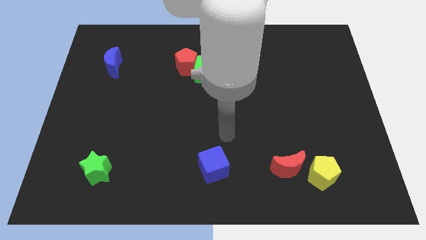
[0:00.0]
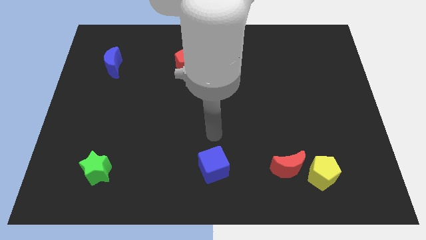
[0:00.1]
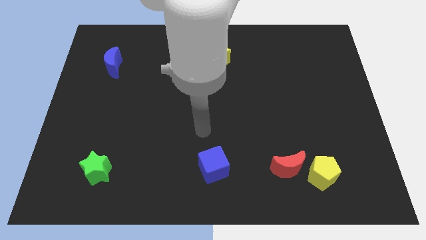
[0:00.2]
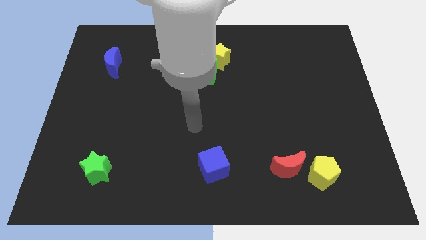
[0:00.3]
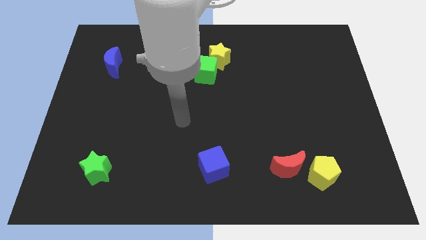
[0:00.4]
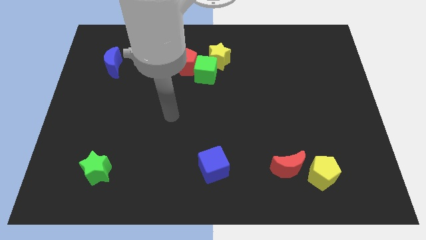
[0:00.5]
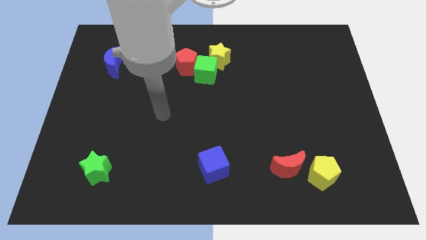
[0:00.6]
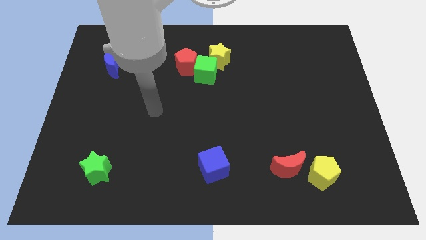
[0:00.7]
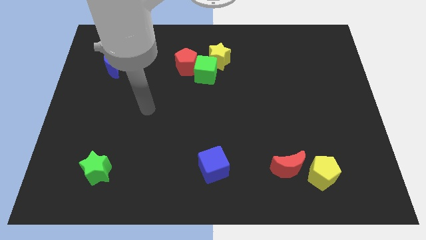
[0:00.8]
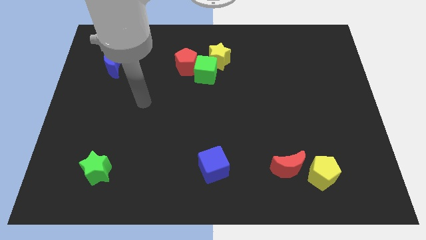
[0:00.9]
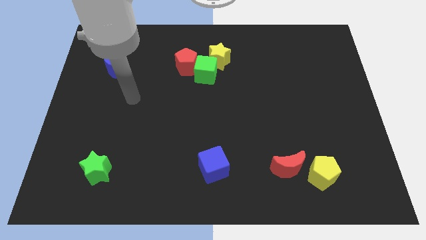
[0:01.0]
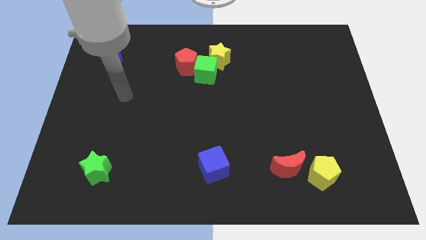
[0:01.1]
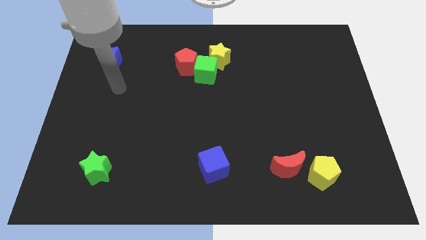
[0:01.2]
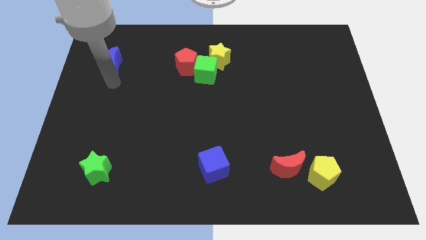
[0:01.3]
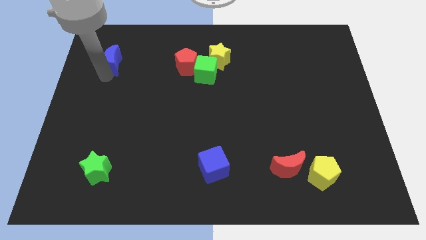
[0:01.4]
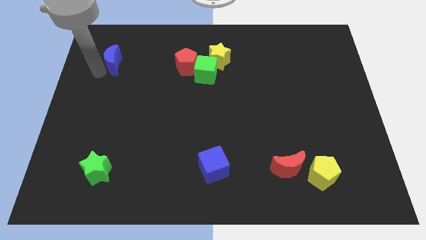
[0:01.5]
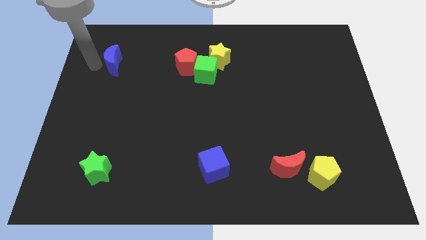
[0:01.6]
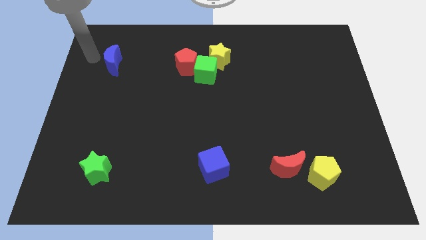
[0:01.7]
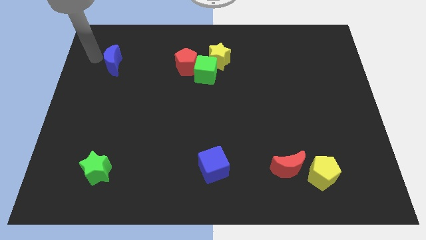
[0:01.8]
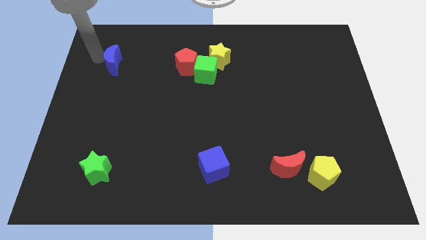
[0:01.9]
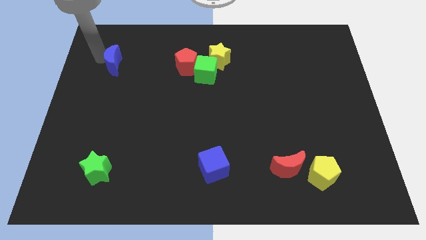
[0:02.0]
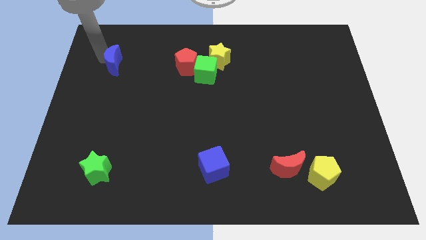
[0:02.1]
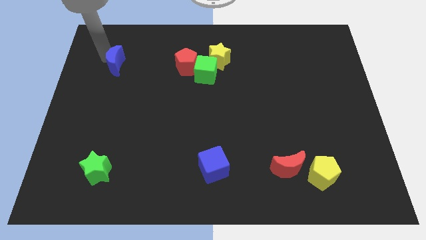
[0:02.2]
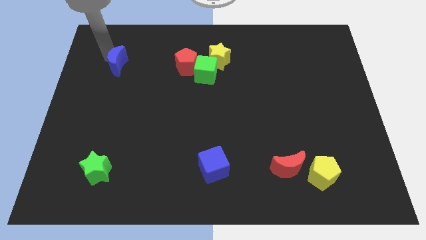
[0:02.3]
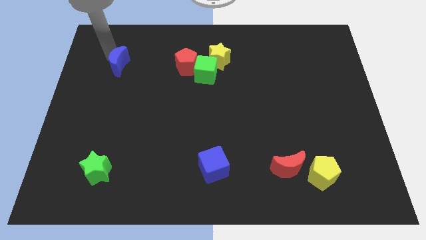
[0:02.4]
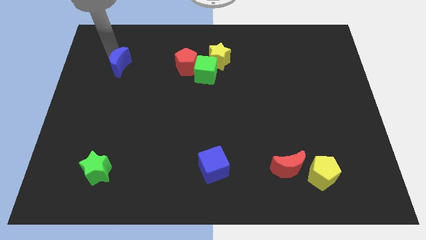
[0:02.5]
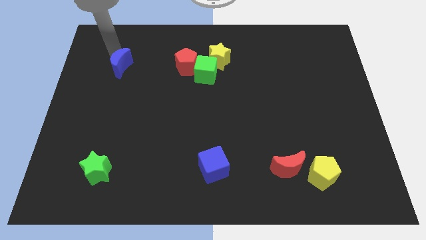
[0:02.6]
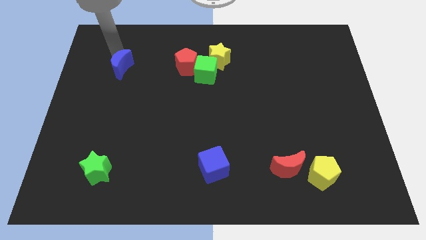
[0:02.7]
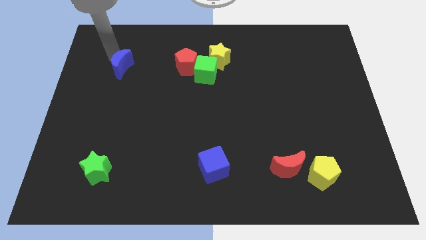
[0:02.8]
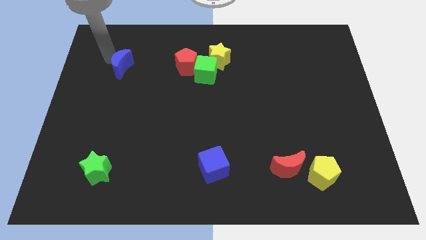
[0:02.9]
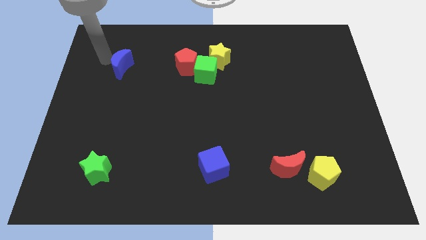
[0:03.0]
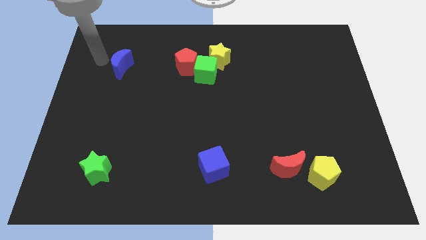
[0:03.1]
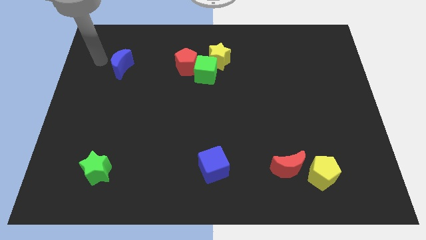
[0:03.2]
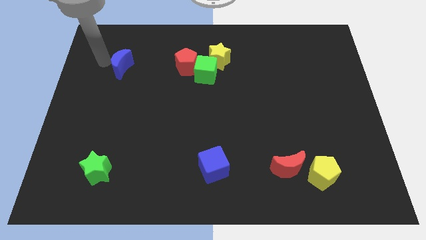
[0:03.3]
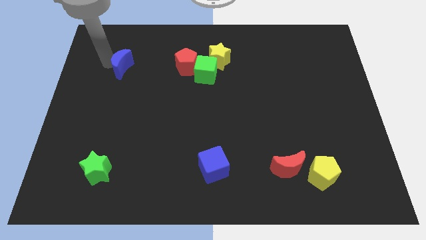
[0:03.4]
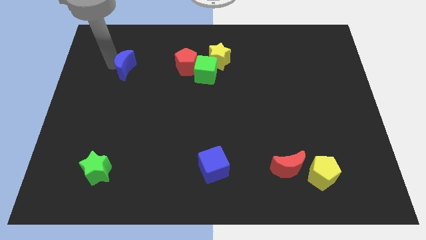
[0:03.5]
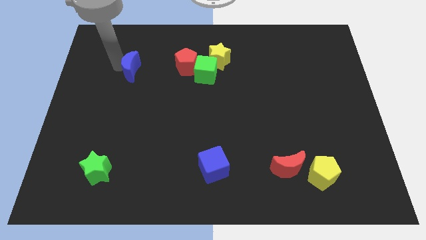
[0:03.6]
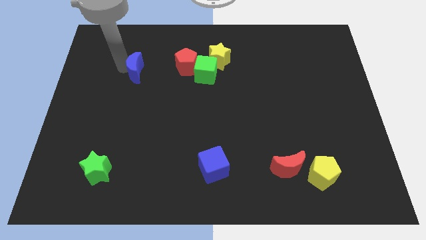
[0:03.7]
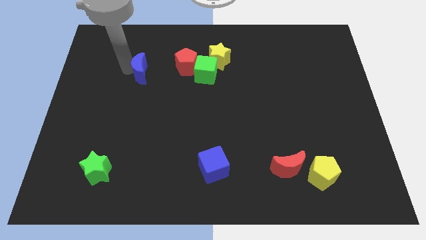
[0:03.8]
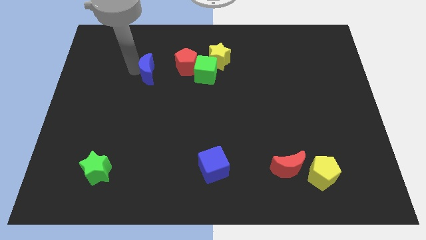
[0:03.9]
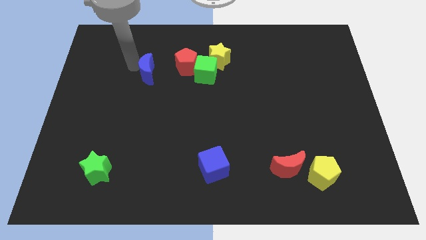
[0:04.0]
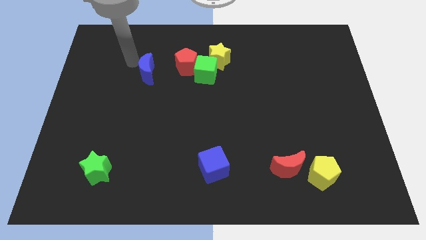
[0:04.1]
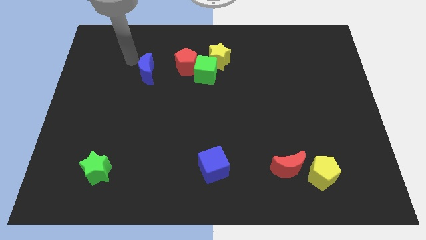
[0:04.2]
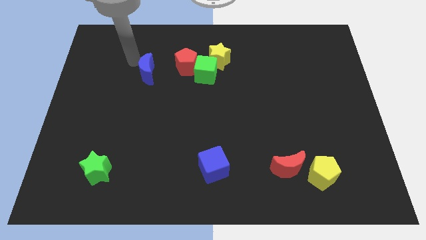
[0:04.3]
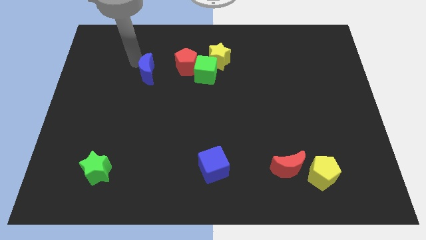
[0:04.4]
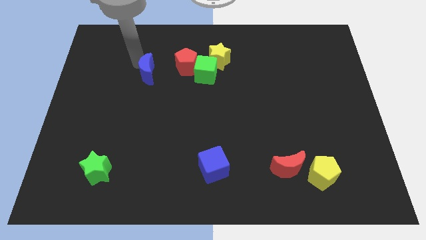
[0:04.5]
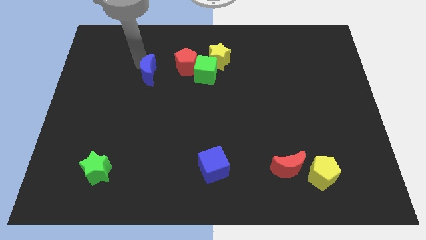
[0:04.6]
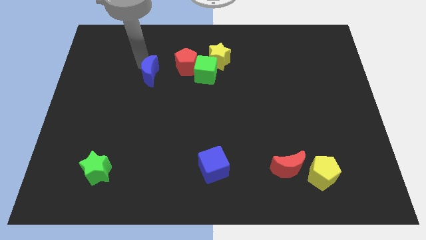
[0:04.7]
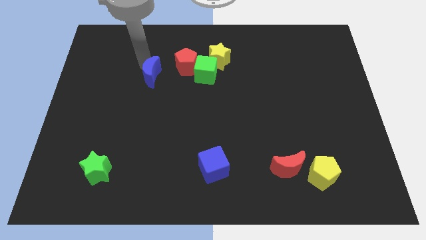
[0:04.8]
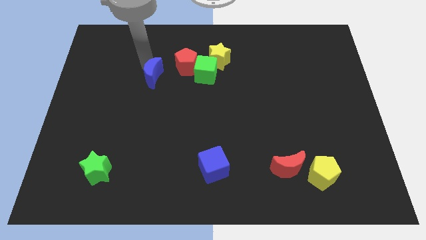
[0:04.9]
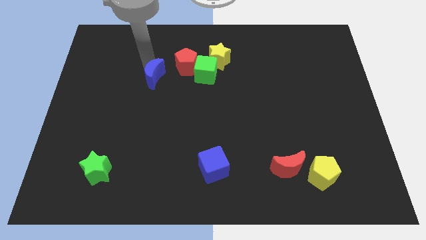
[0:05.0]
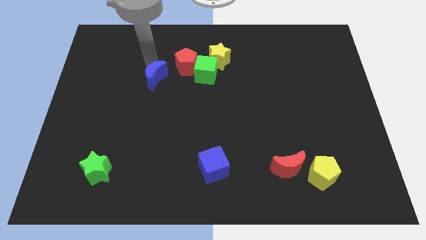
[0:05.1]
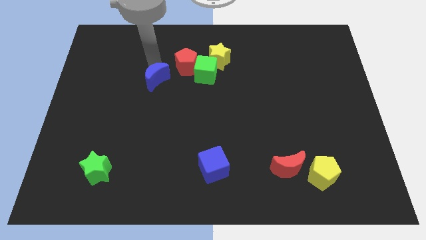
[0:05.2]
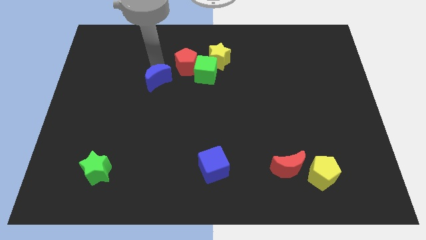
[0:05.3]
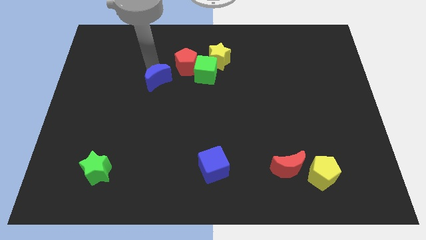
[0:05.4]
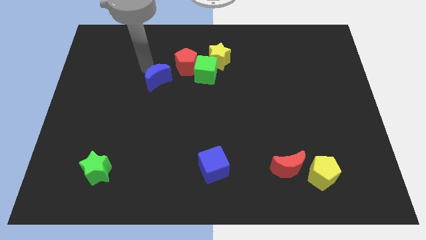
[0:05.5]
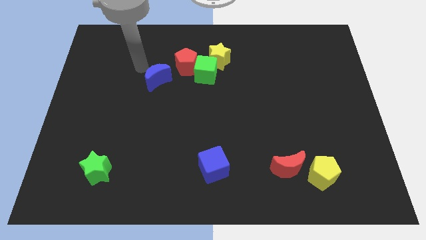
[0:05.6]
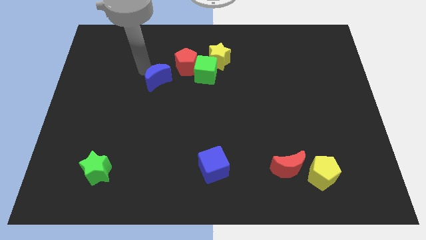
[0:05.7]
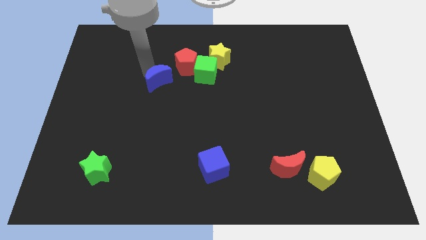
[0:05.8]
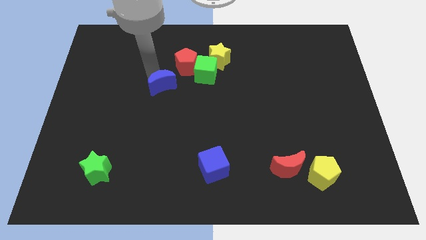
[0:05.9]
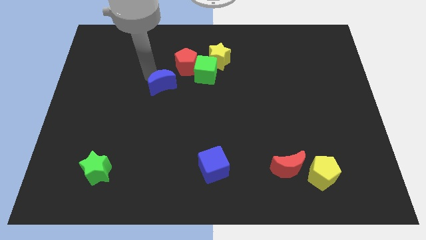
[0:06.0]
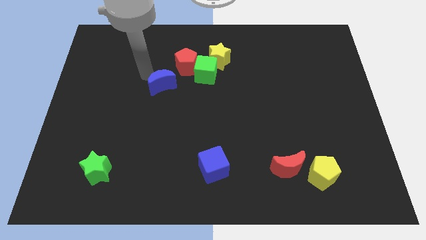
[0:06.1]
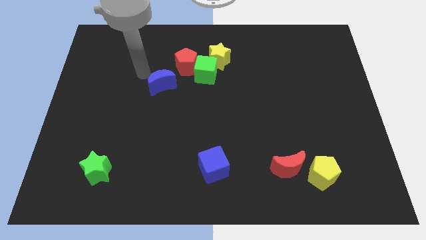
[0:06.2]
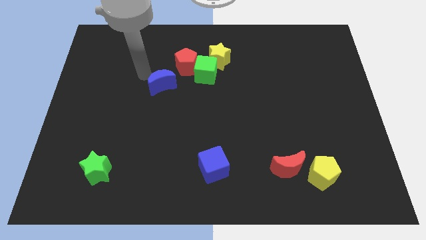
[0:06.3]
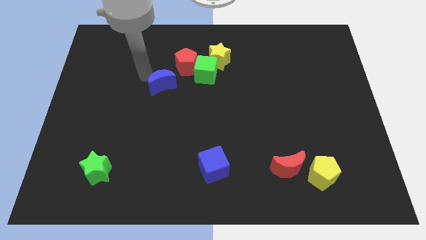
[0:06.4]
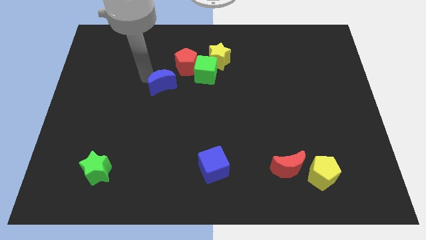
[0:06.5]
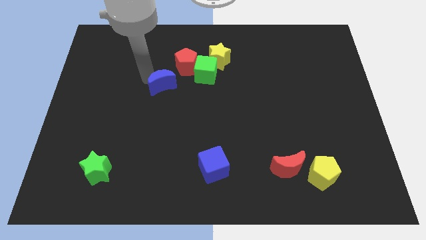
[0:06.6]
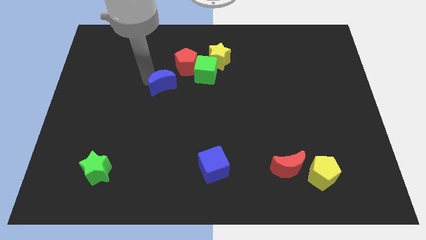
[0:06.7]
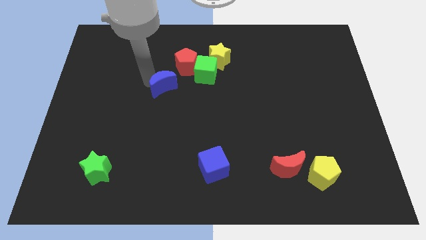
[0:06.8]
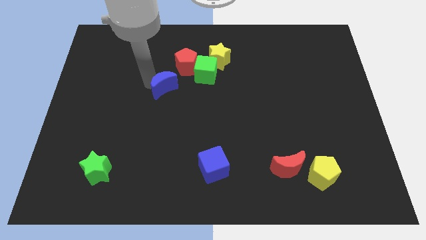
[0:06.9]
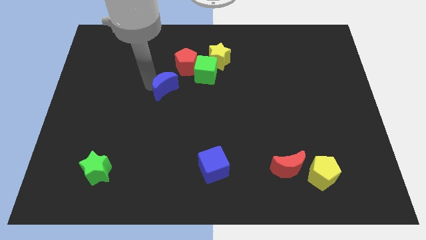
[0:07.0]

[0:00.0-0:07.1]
put the blue moon to the center
